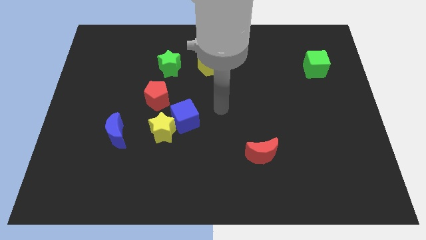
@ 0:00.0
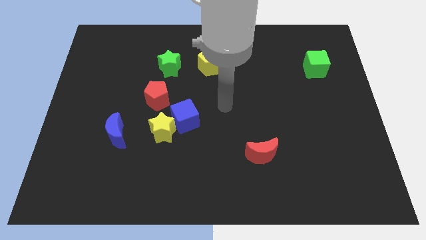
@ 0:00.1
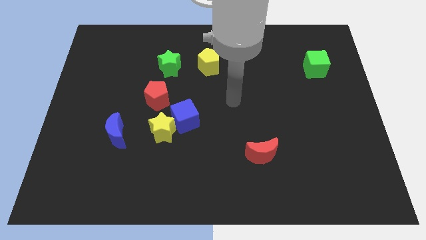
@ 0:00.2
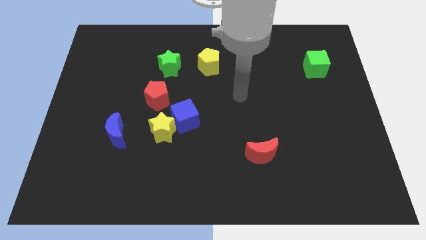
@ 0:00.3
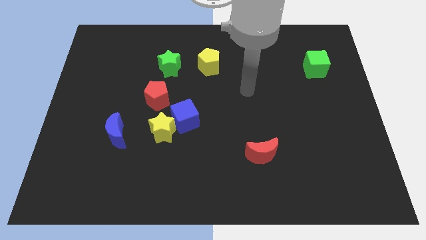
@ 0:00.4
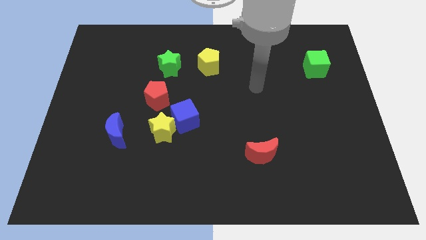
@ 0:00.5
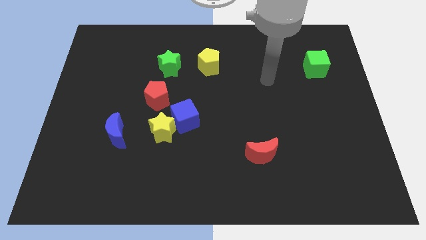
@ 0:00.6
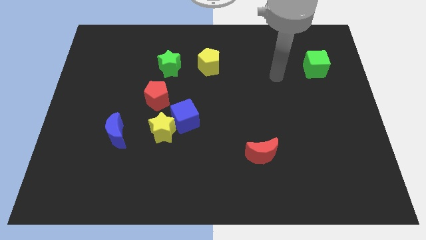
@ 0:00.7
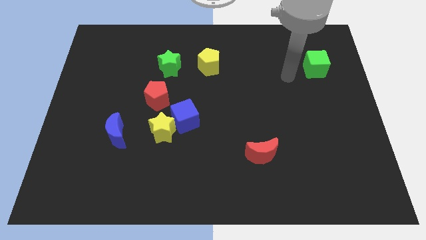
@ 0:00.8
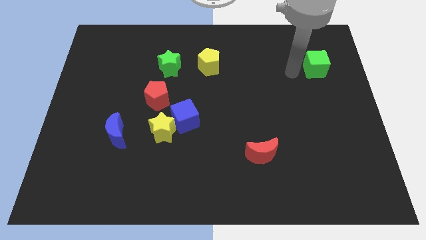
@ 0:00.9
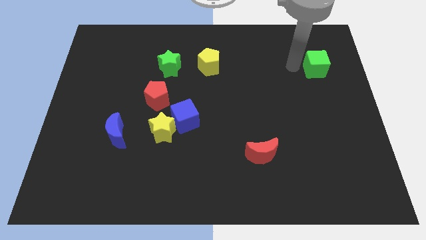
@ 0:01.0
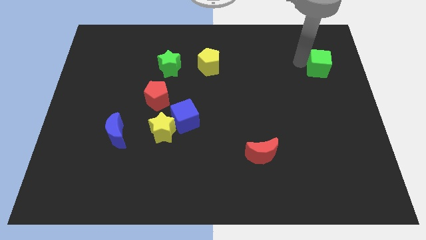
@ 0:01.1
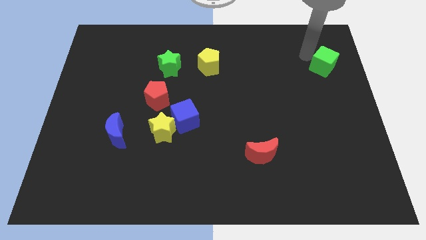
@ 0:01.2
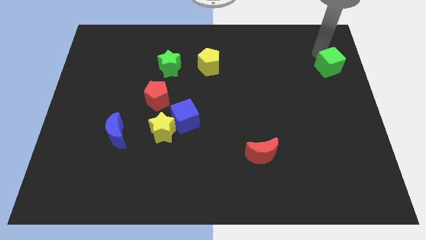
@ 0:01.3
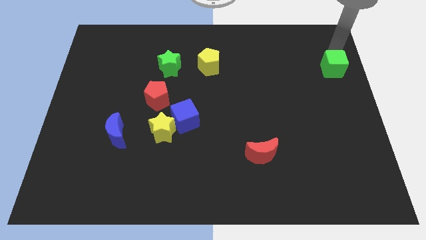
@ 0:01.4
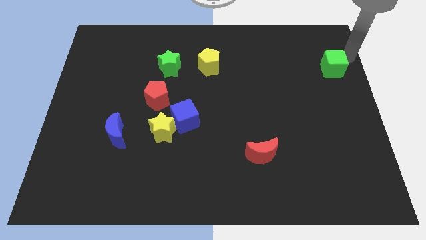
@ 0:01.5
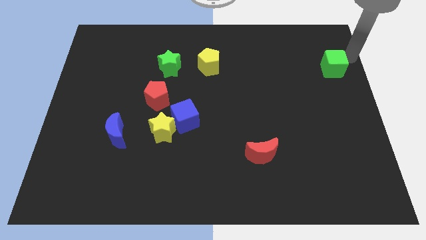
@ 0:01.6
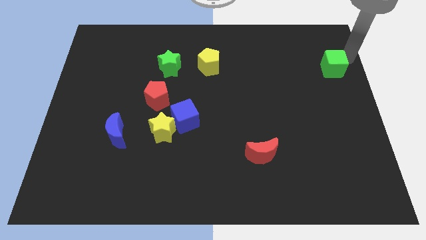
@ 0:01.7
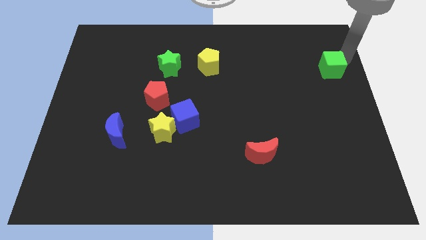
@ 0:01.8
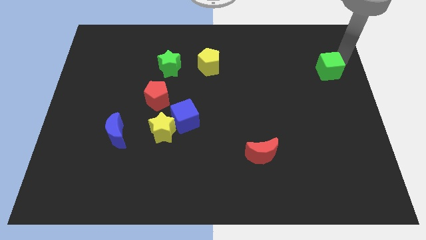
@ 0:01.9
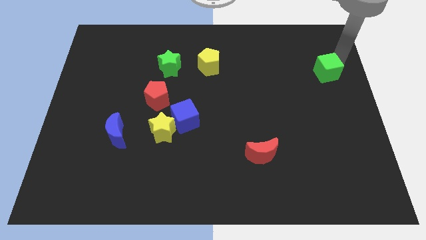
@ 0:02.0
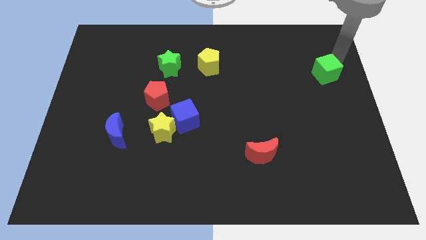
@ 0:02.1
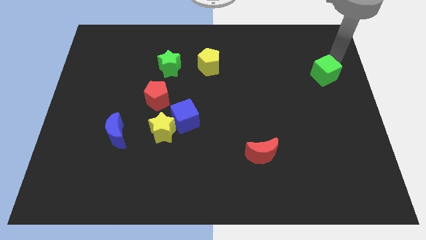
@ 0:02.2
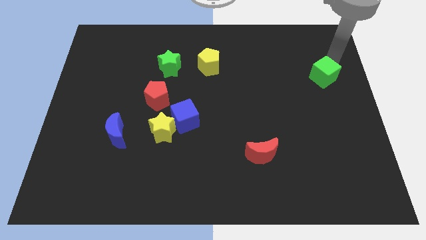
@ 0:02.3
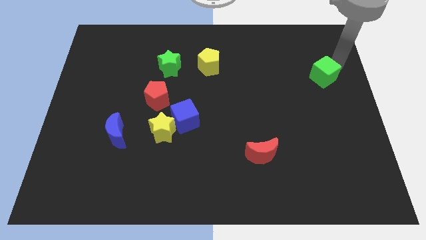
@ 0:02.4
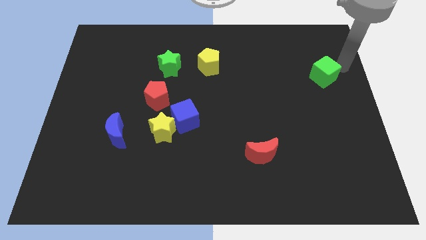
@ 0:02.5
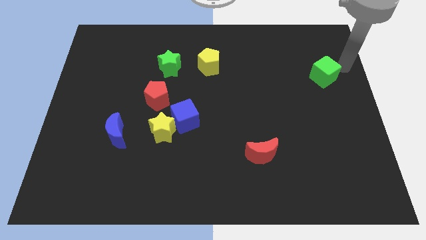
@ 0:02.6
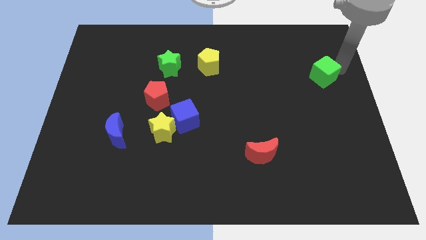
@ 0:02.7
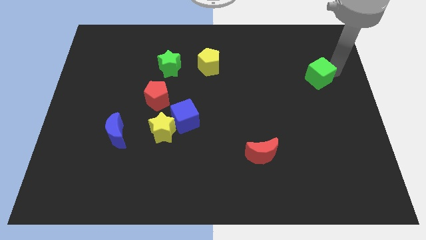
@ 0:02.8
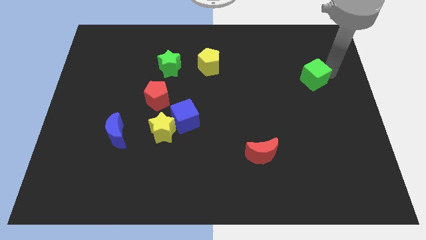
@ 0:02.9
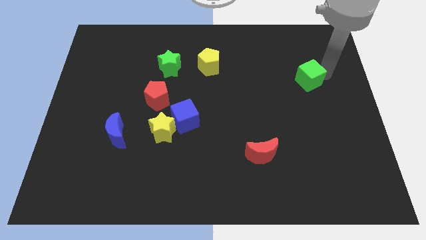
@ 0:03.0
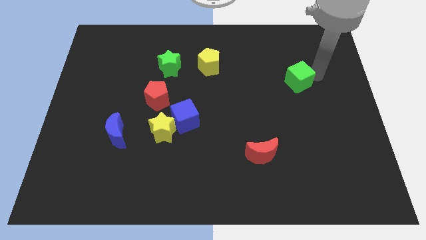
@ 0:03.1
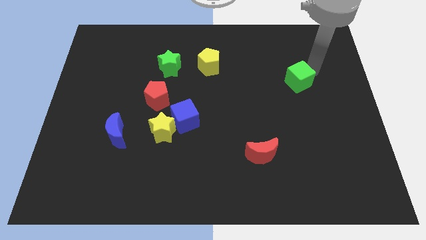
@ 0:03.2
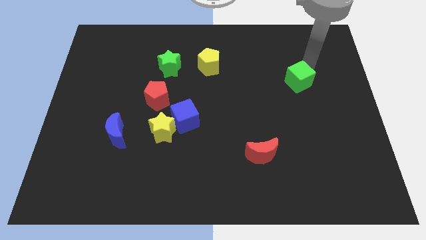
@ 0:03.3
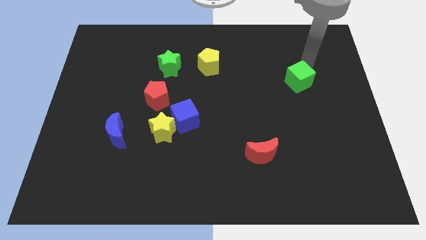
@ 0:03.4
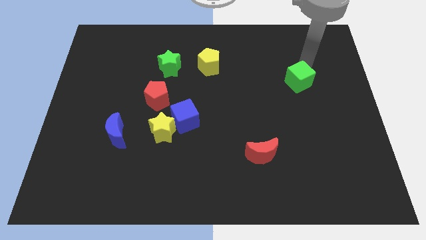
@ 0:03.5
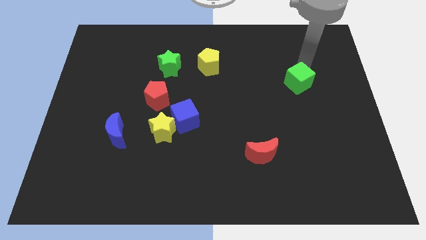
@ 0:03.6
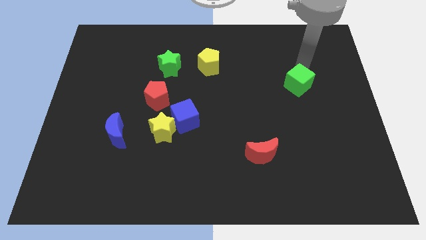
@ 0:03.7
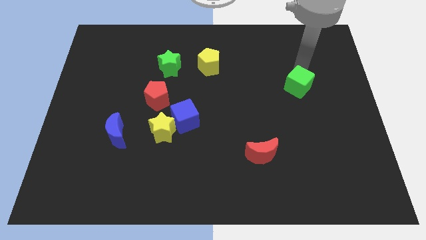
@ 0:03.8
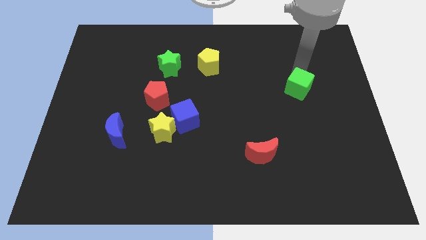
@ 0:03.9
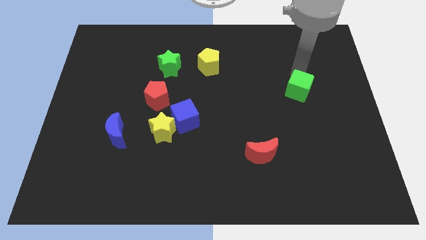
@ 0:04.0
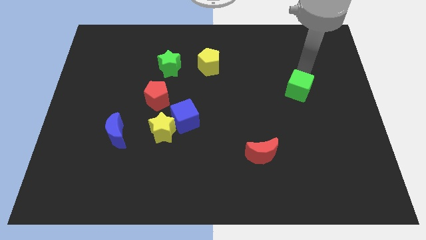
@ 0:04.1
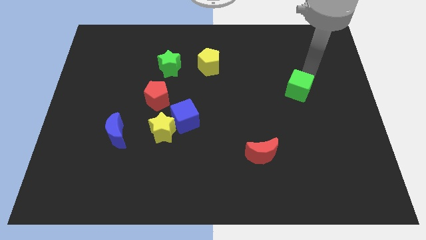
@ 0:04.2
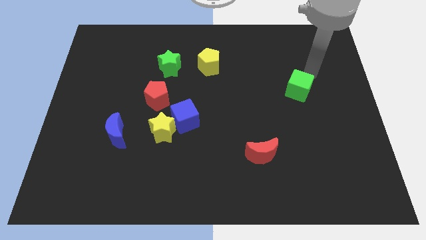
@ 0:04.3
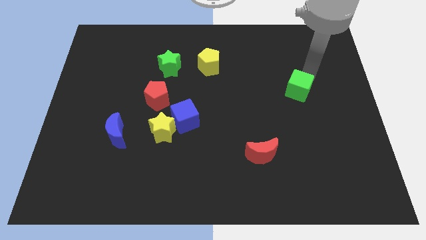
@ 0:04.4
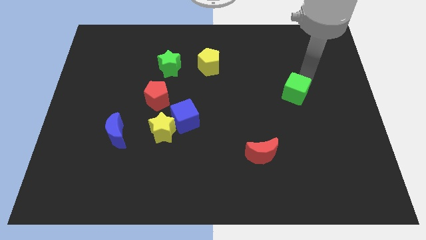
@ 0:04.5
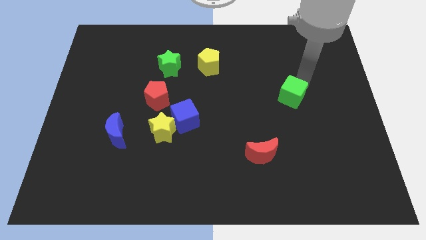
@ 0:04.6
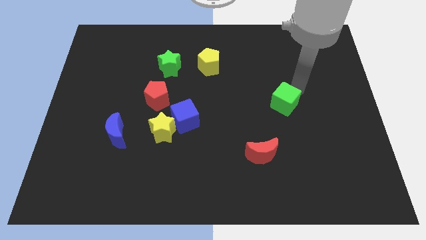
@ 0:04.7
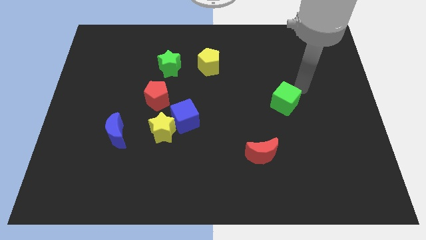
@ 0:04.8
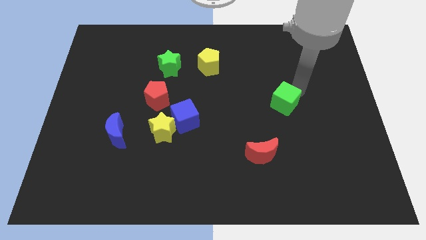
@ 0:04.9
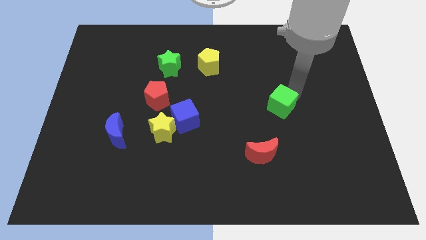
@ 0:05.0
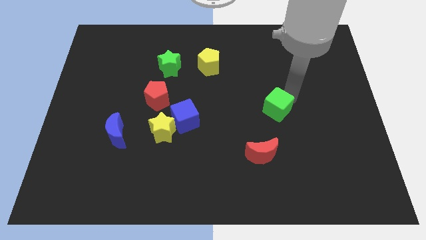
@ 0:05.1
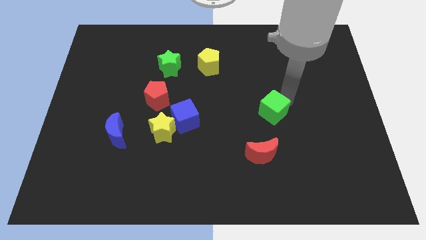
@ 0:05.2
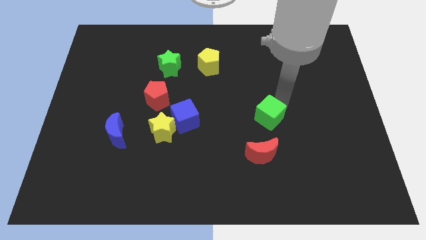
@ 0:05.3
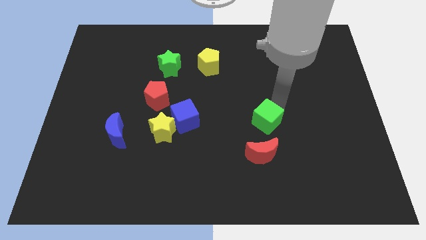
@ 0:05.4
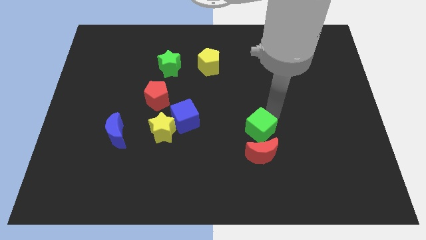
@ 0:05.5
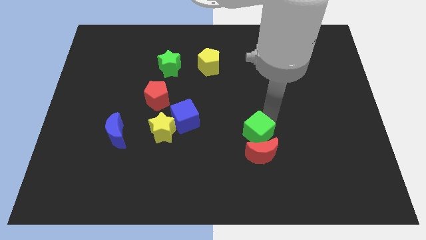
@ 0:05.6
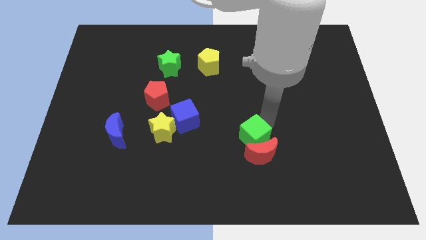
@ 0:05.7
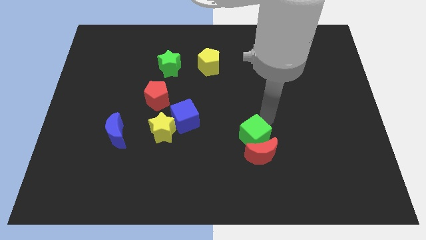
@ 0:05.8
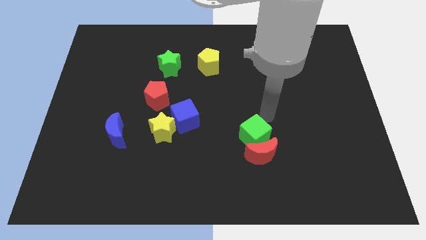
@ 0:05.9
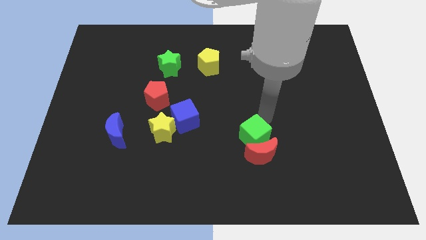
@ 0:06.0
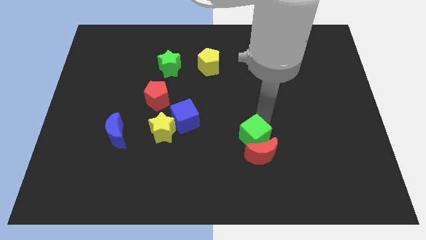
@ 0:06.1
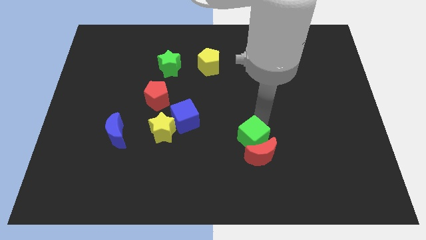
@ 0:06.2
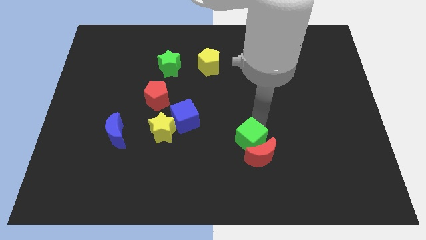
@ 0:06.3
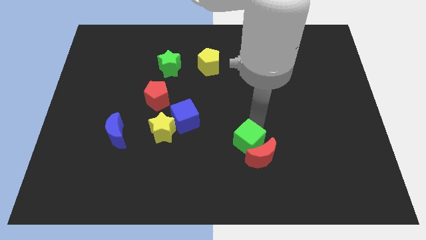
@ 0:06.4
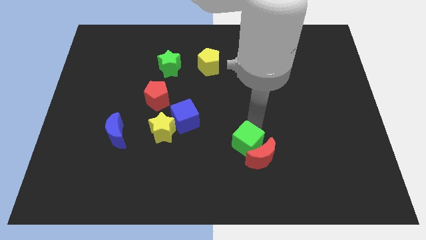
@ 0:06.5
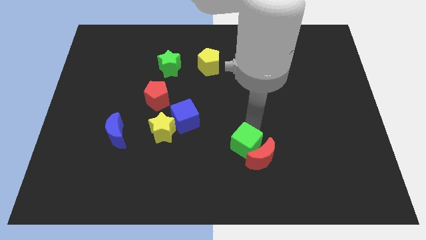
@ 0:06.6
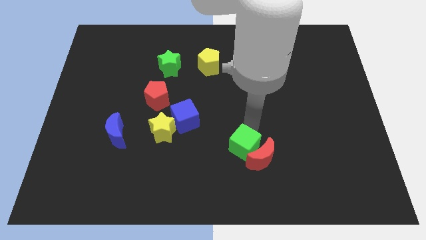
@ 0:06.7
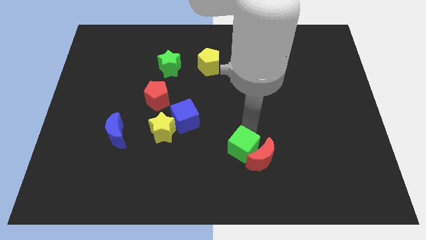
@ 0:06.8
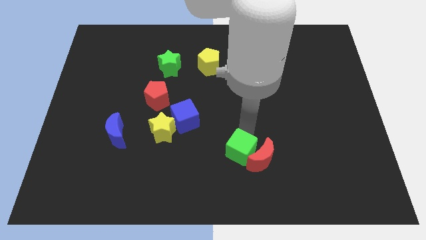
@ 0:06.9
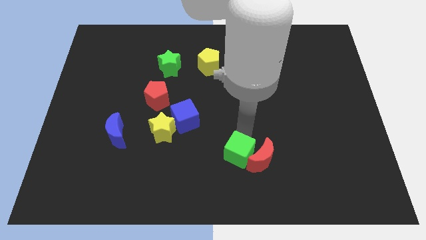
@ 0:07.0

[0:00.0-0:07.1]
move the green cube to the bottom left side of the red moon
